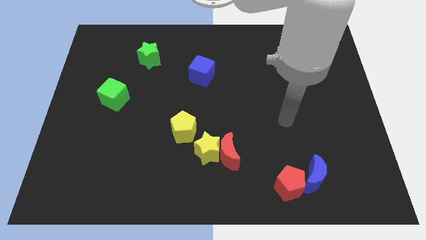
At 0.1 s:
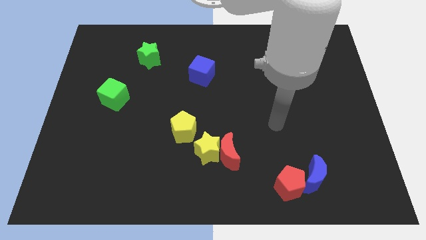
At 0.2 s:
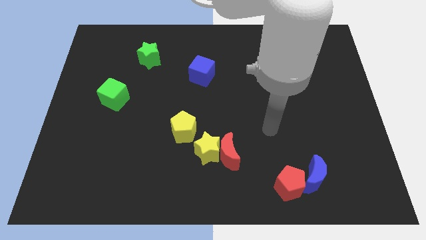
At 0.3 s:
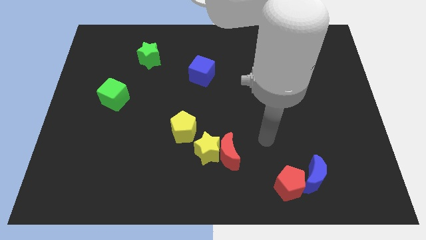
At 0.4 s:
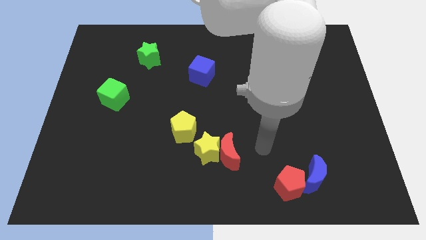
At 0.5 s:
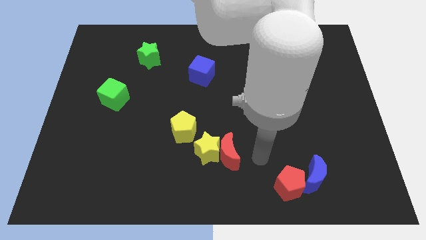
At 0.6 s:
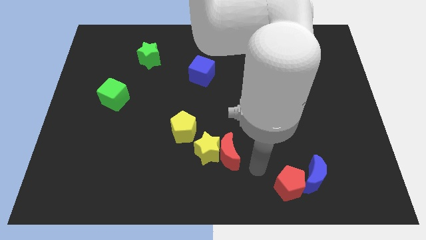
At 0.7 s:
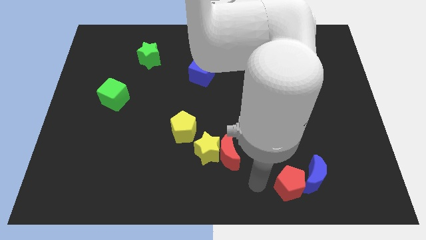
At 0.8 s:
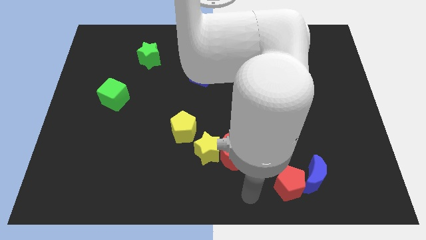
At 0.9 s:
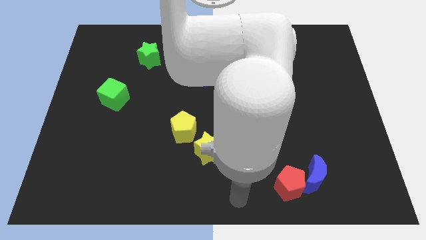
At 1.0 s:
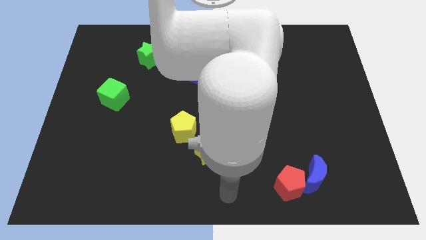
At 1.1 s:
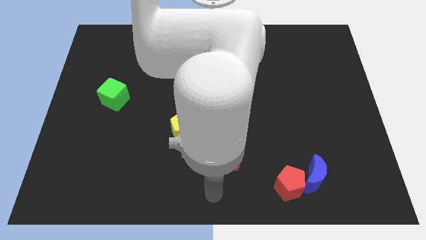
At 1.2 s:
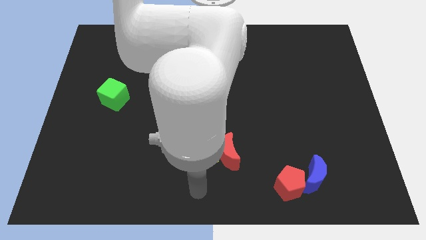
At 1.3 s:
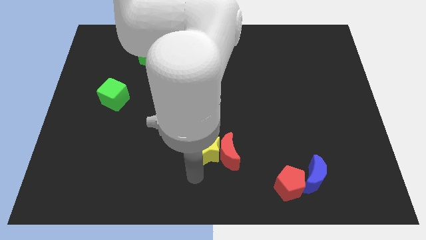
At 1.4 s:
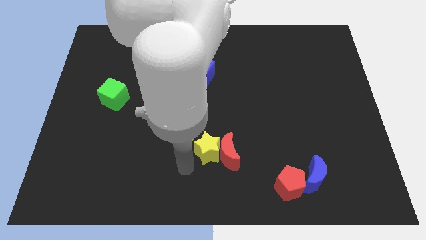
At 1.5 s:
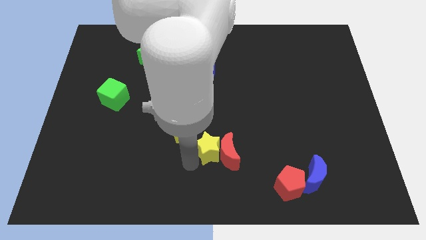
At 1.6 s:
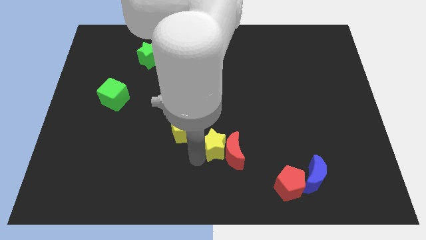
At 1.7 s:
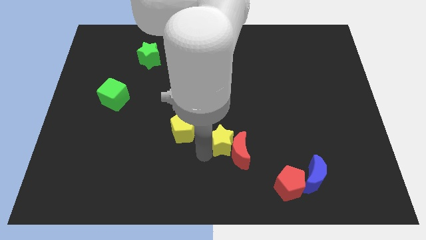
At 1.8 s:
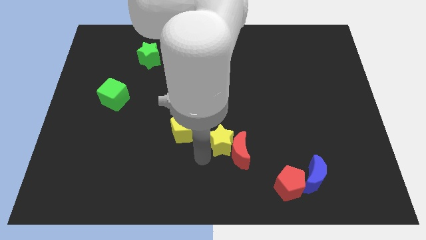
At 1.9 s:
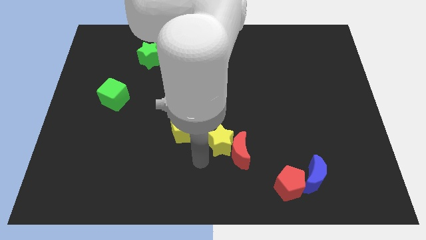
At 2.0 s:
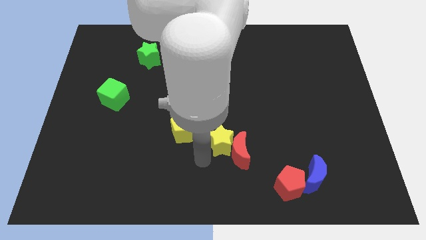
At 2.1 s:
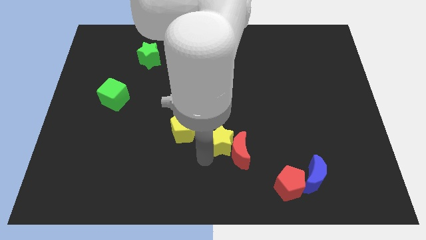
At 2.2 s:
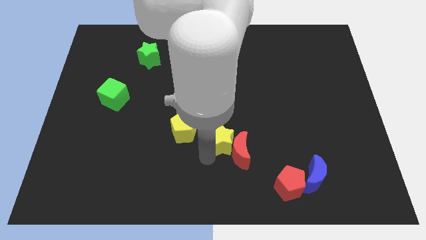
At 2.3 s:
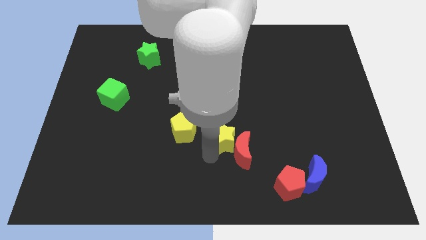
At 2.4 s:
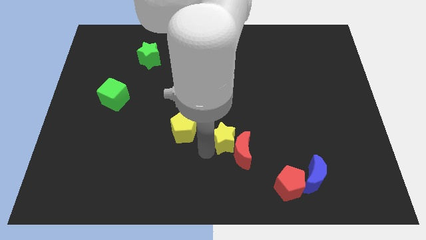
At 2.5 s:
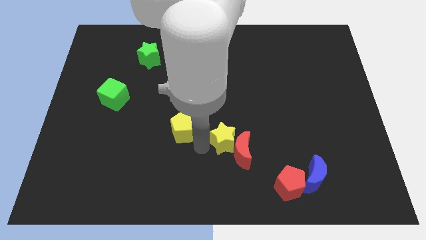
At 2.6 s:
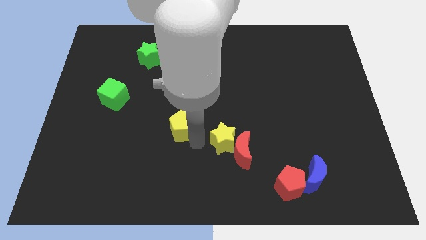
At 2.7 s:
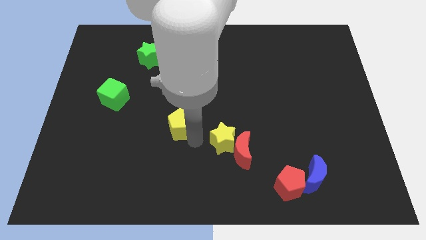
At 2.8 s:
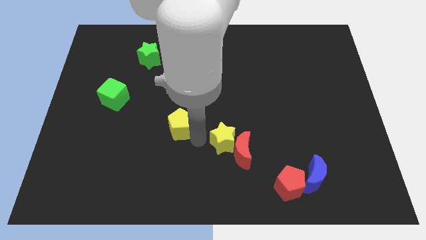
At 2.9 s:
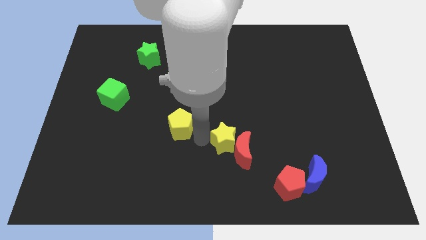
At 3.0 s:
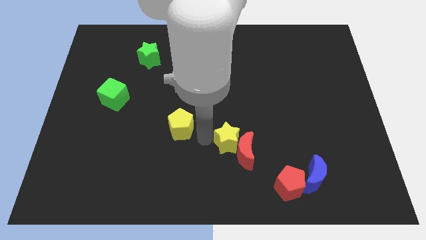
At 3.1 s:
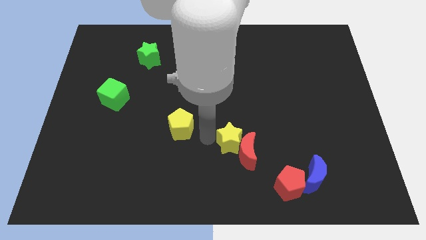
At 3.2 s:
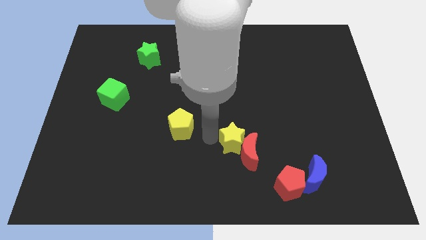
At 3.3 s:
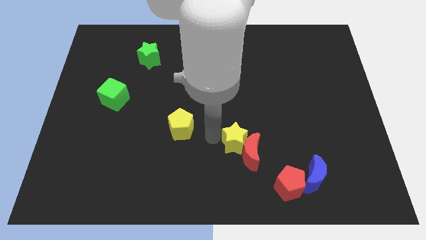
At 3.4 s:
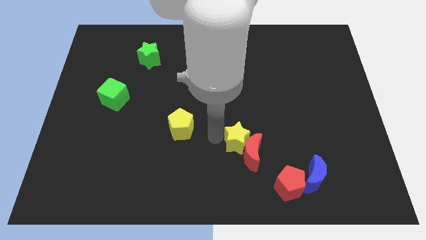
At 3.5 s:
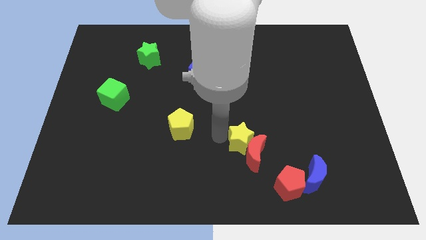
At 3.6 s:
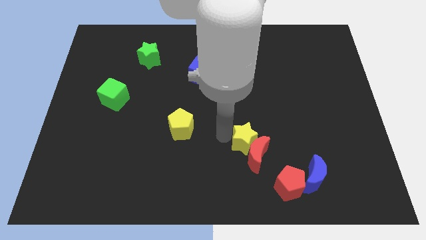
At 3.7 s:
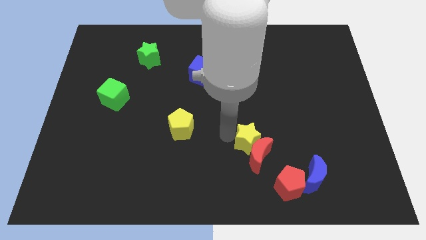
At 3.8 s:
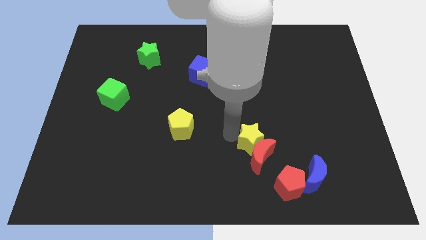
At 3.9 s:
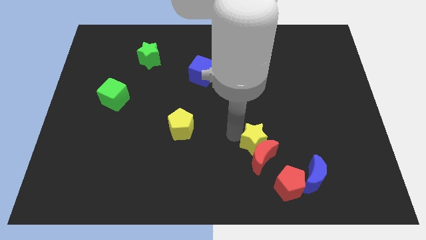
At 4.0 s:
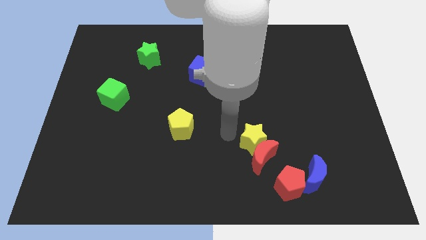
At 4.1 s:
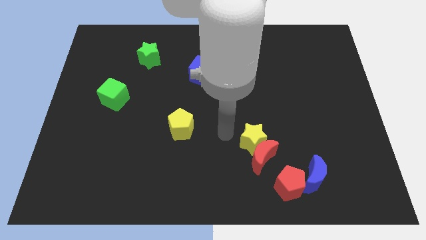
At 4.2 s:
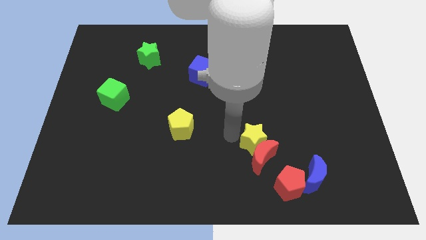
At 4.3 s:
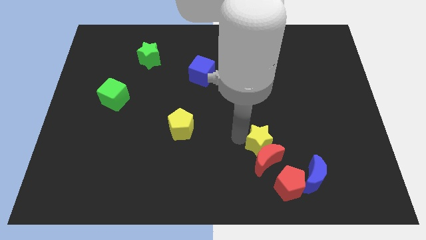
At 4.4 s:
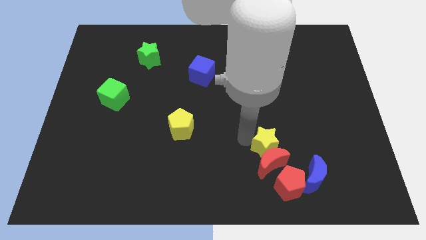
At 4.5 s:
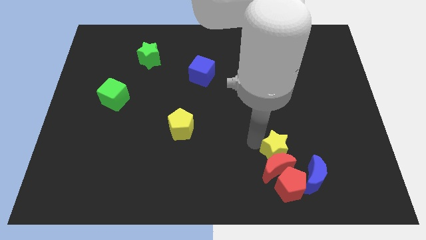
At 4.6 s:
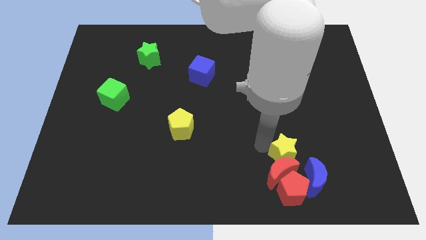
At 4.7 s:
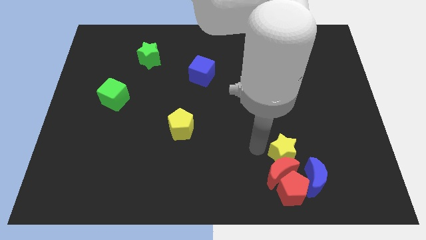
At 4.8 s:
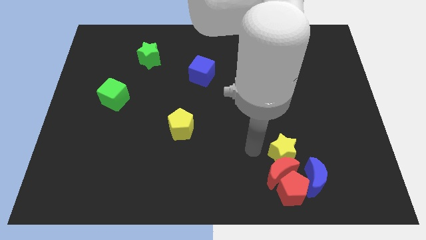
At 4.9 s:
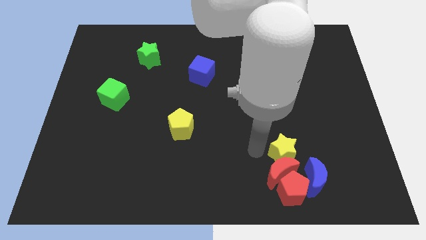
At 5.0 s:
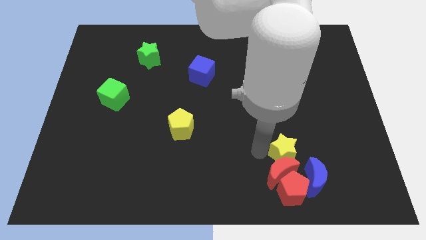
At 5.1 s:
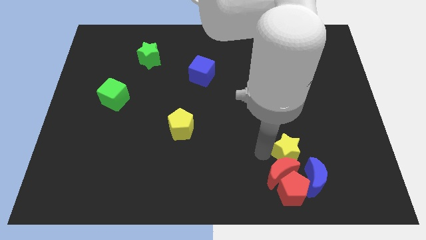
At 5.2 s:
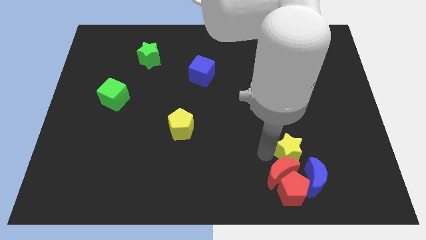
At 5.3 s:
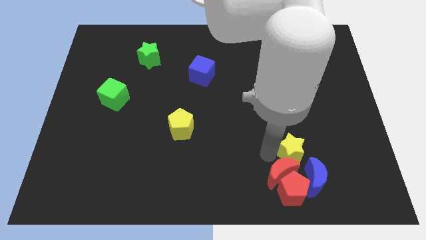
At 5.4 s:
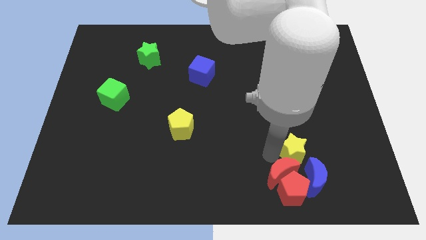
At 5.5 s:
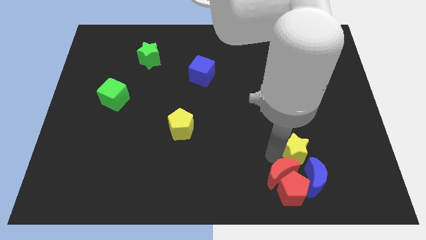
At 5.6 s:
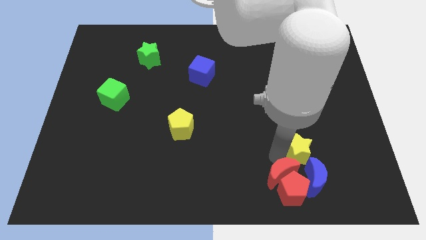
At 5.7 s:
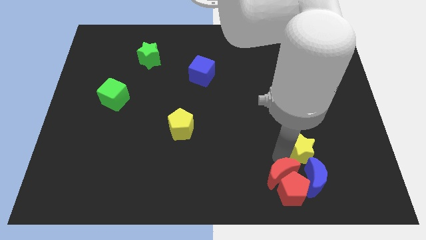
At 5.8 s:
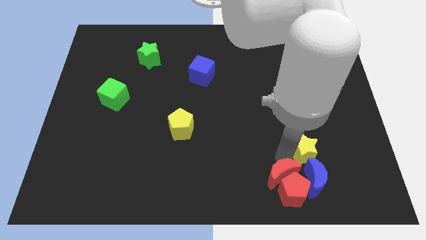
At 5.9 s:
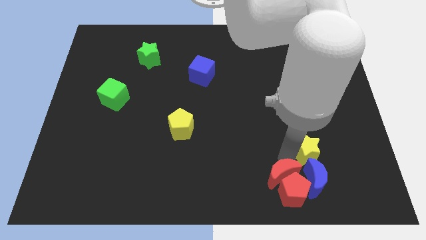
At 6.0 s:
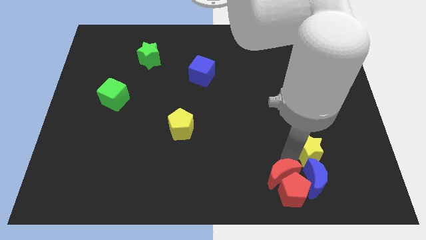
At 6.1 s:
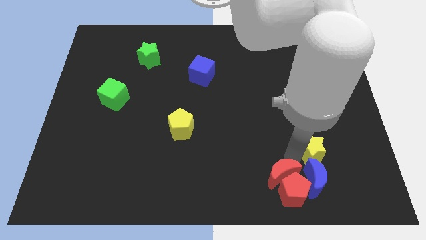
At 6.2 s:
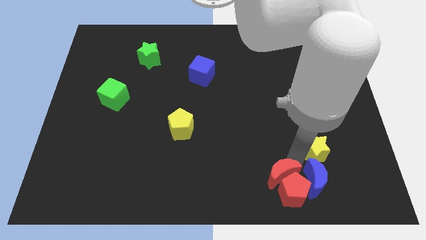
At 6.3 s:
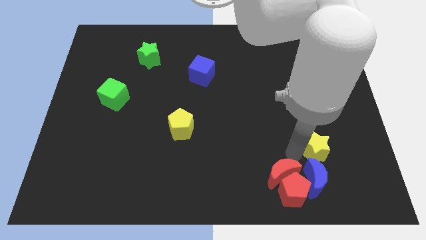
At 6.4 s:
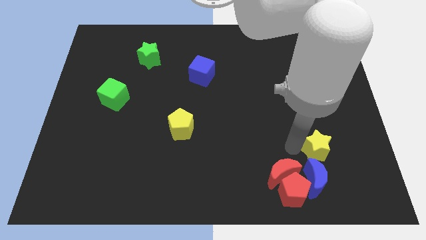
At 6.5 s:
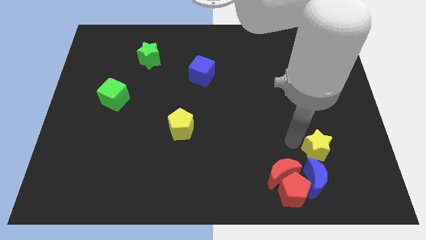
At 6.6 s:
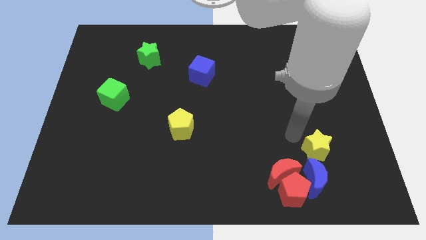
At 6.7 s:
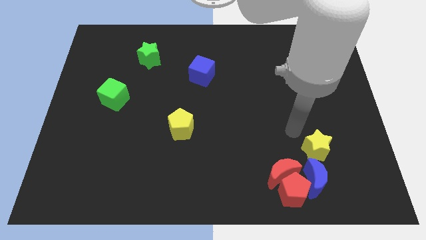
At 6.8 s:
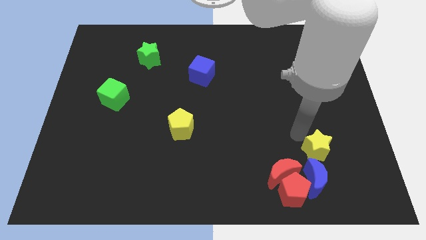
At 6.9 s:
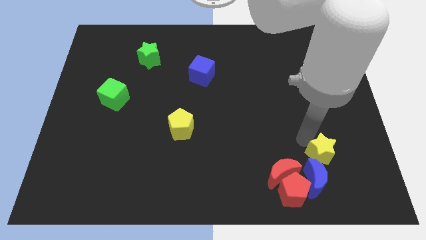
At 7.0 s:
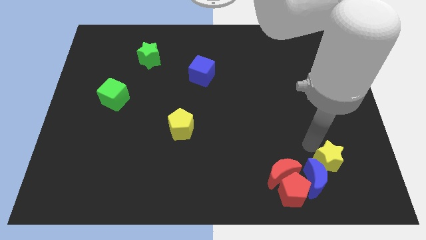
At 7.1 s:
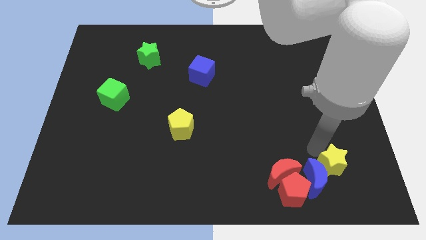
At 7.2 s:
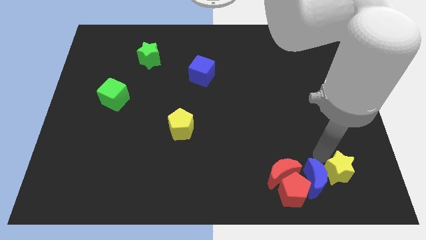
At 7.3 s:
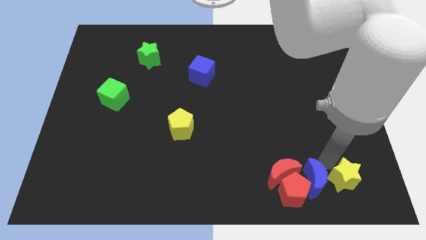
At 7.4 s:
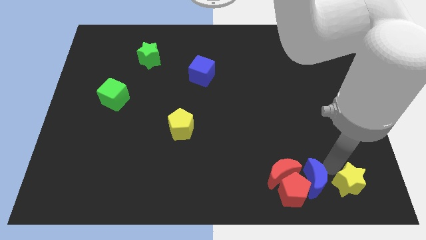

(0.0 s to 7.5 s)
move the yellow star to the bottom right corner
